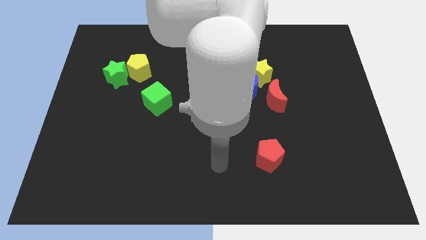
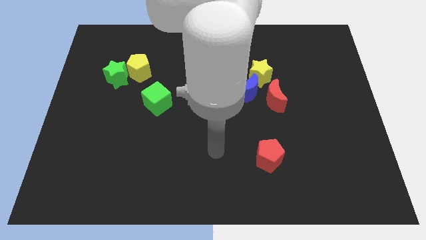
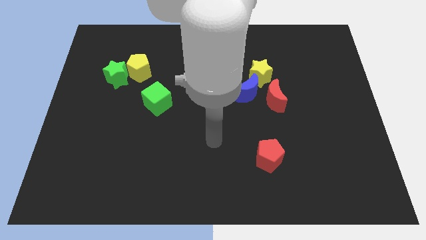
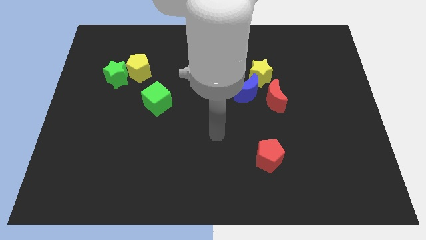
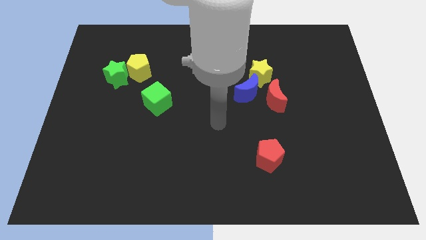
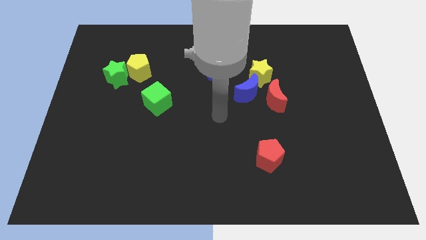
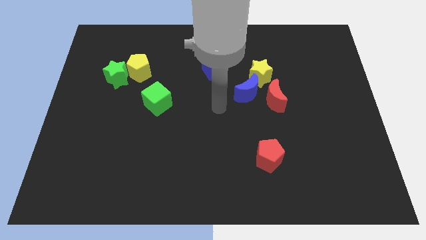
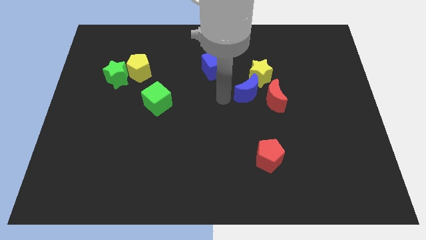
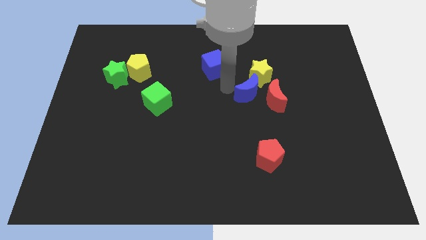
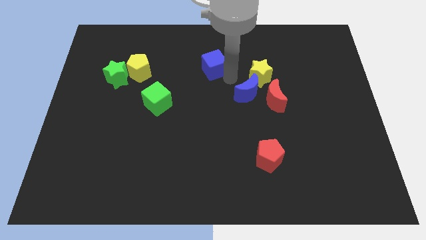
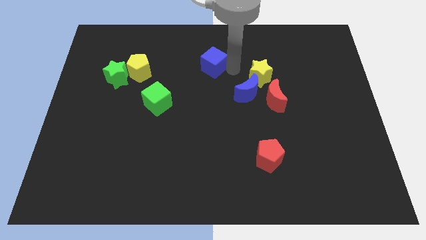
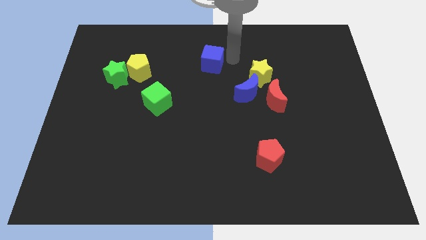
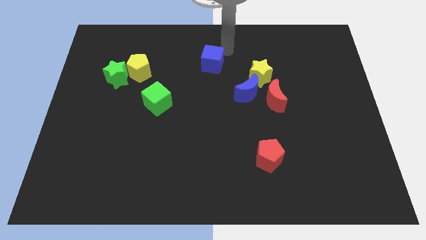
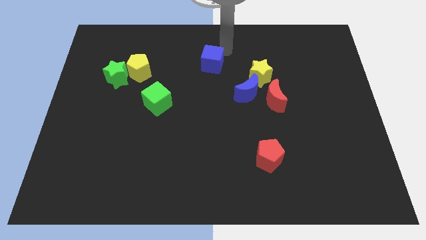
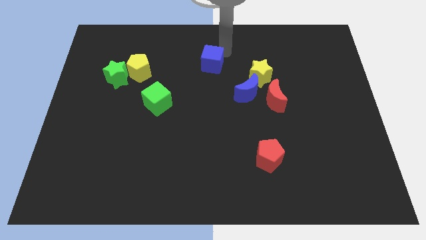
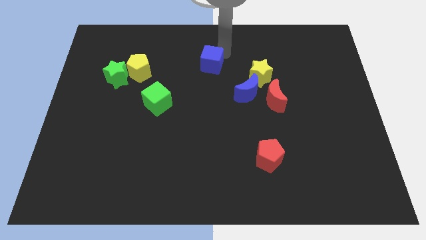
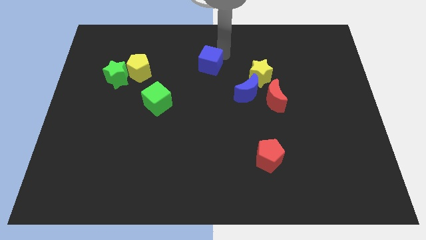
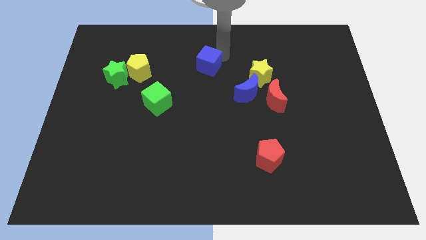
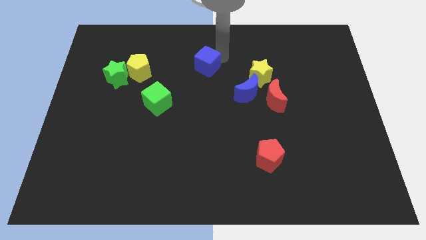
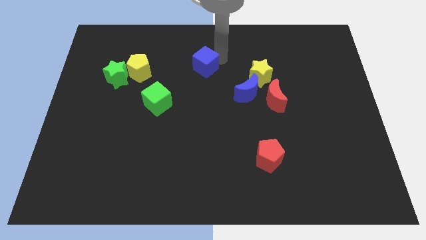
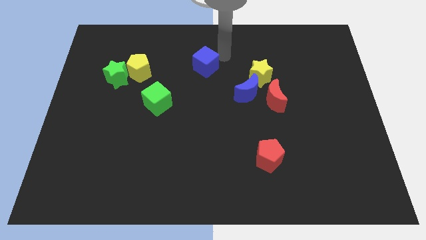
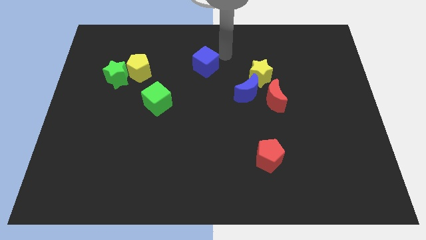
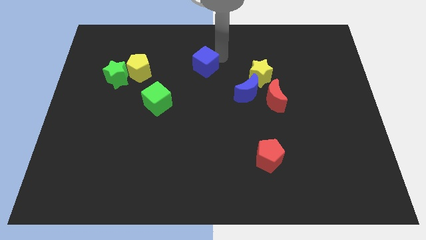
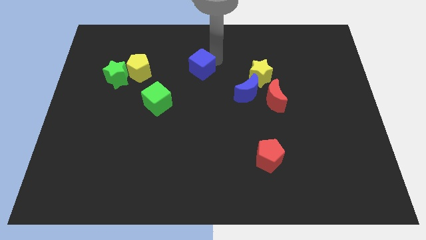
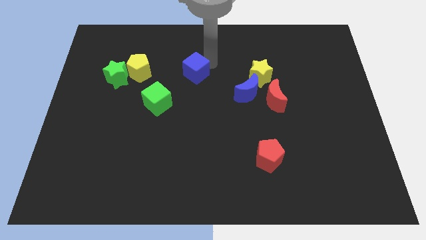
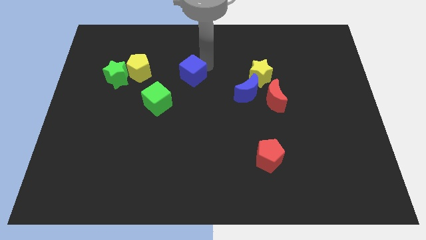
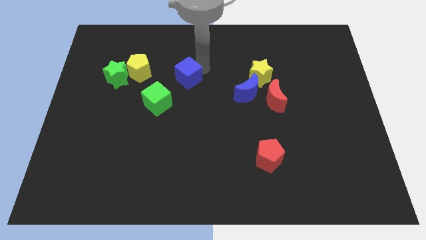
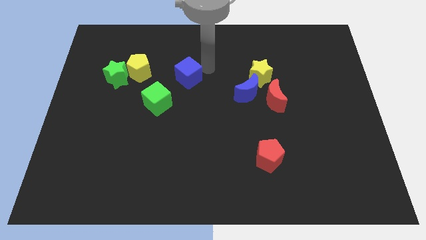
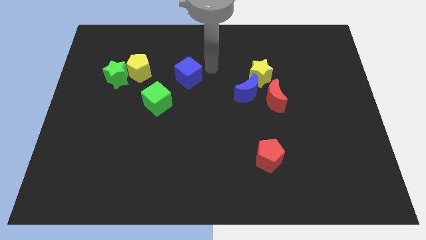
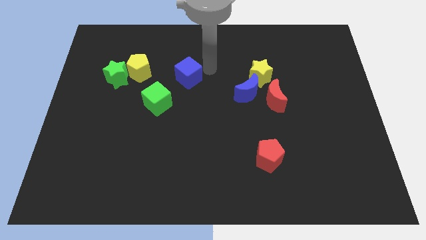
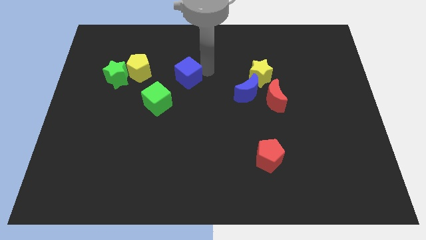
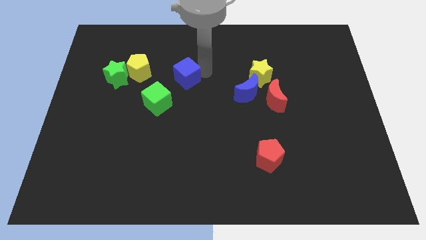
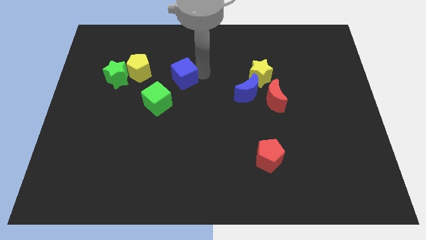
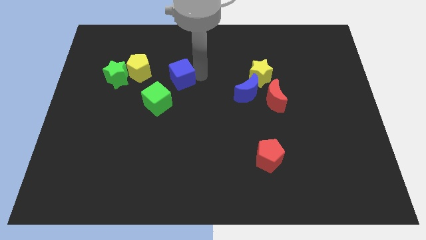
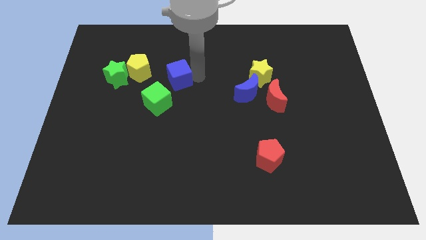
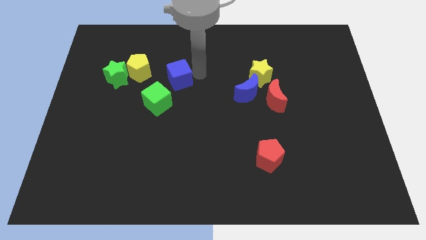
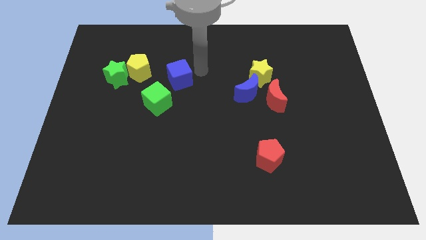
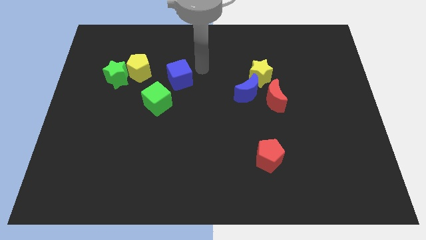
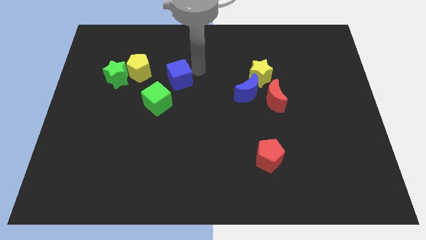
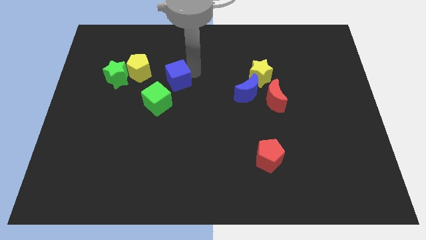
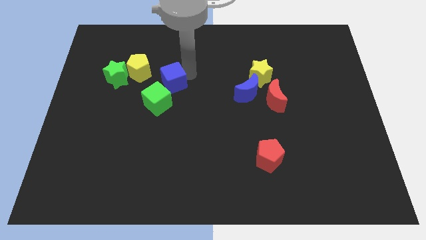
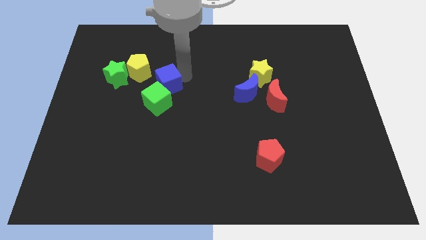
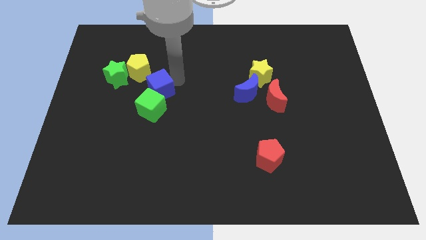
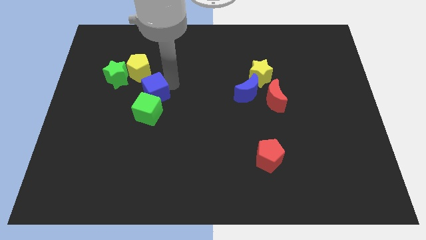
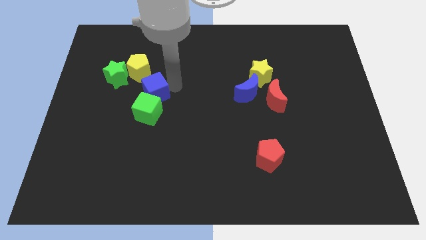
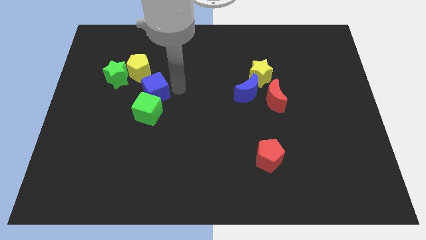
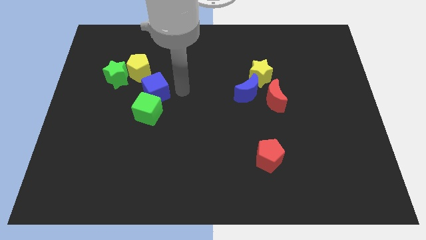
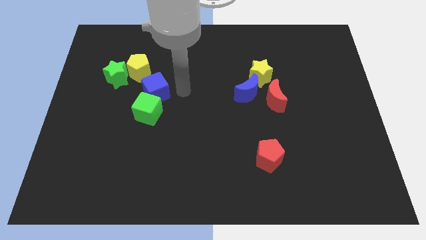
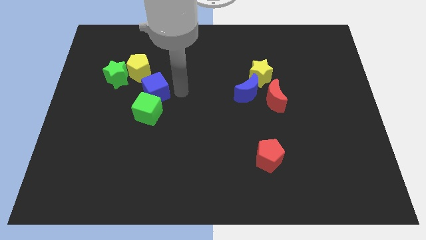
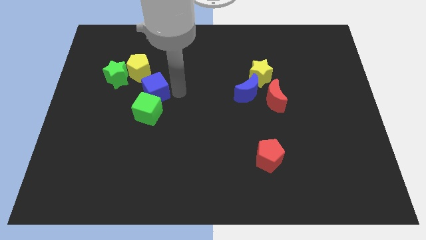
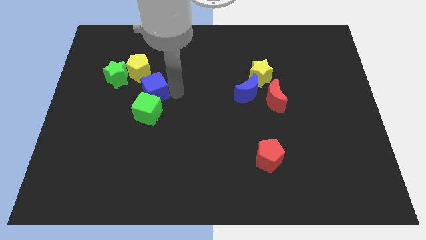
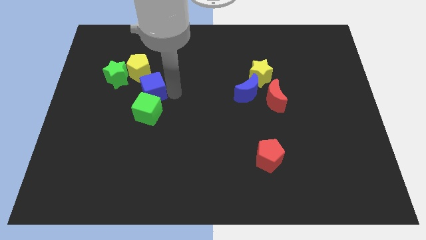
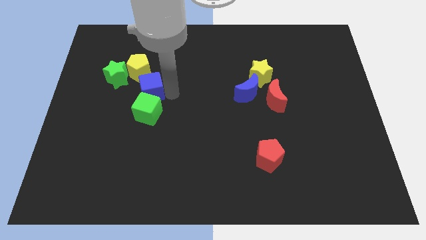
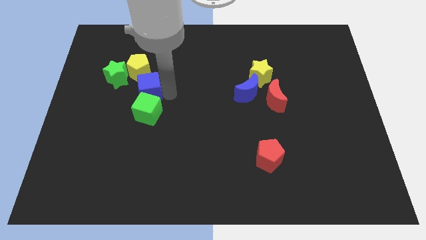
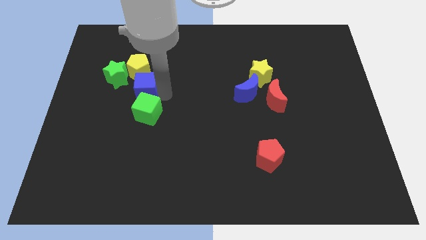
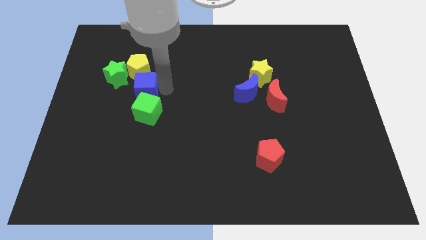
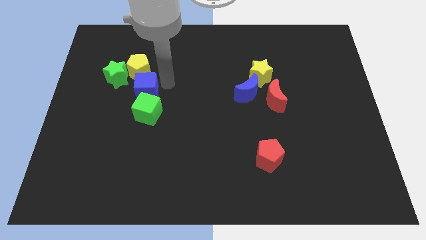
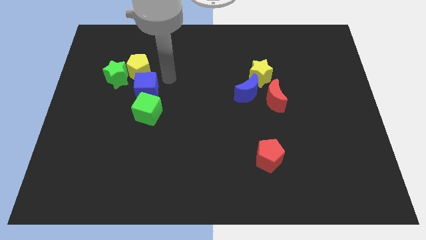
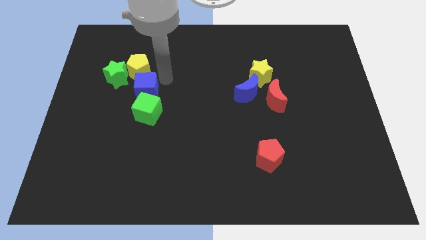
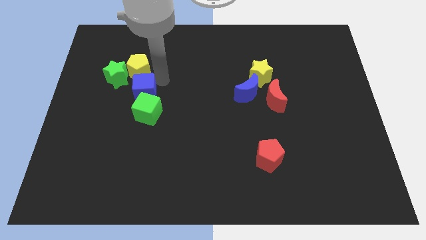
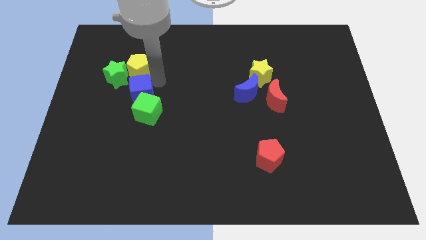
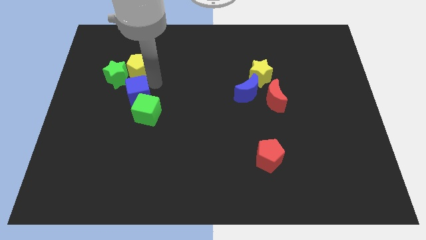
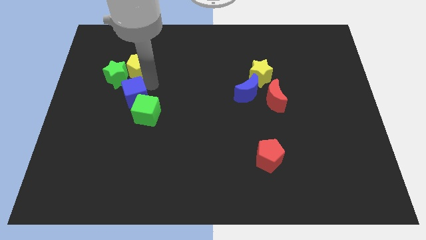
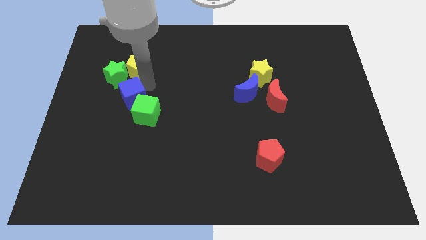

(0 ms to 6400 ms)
slide the blue cube below the green star

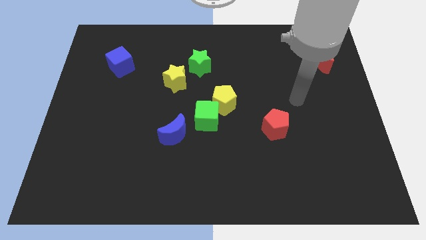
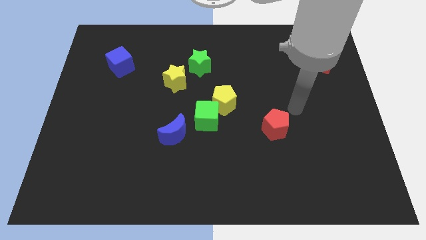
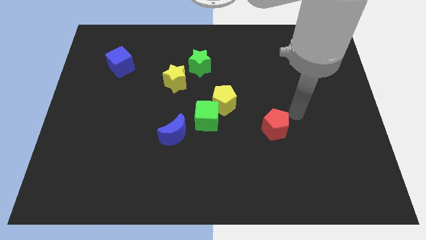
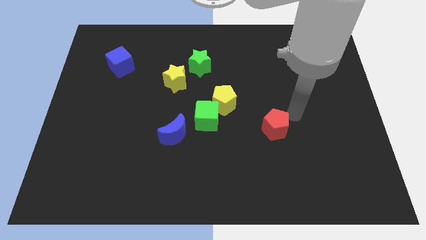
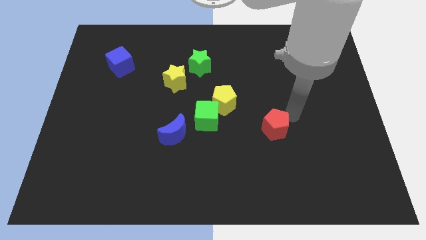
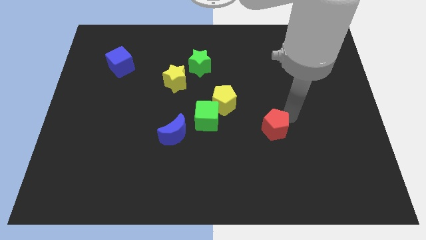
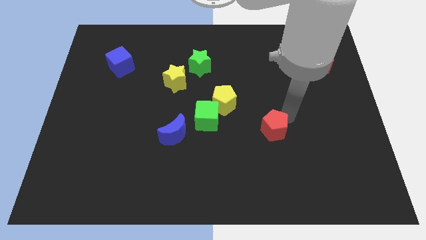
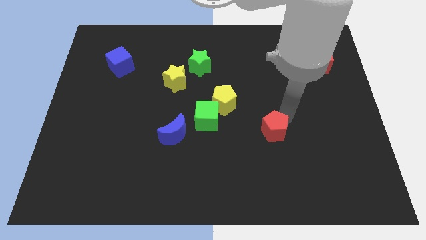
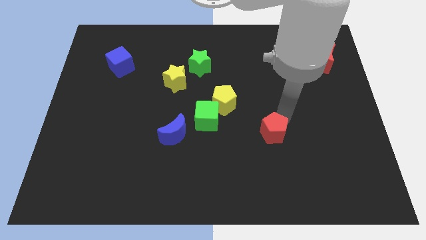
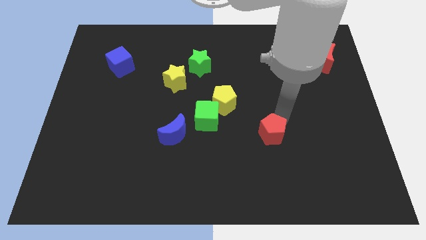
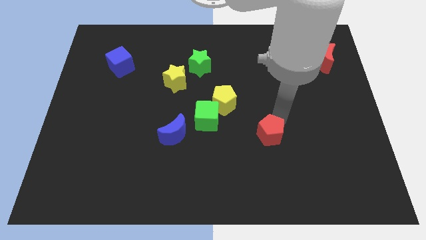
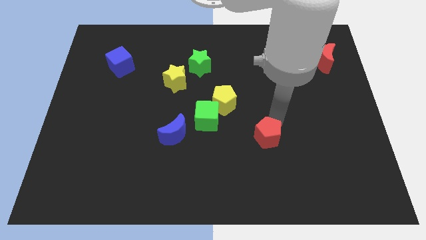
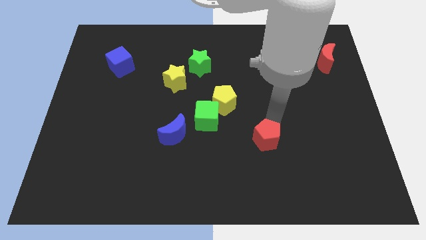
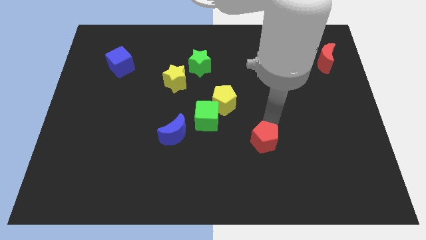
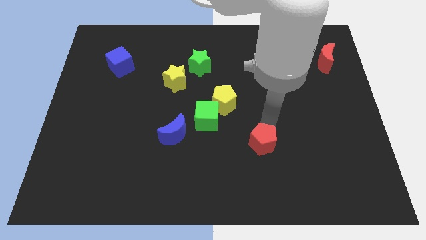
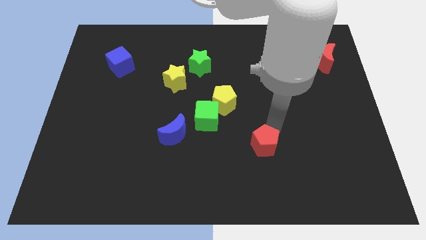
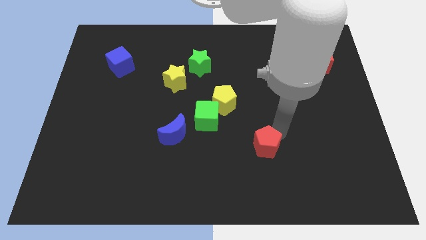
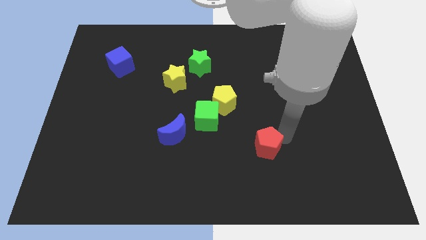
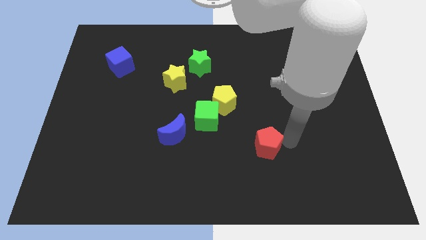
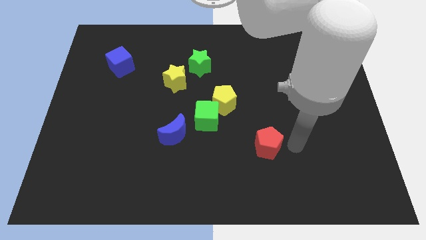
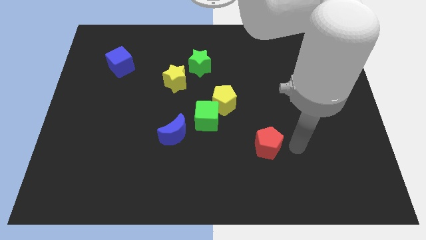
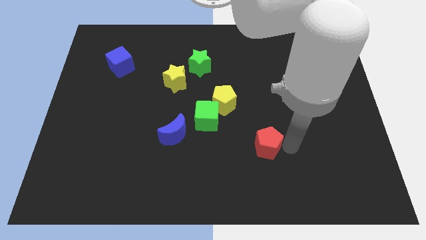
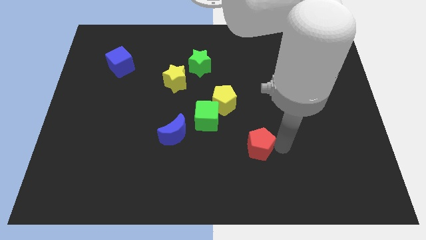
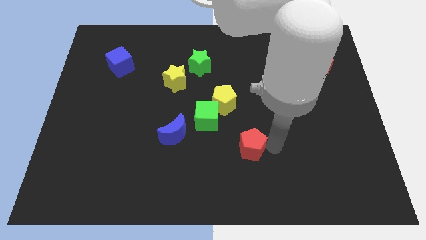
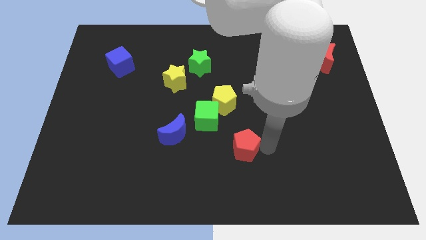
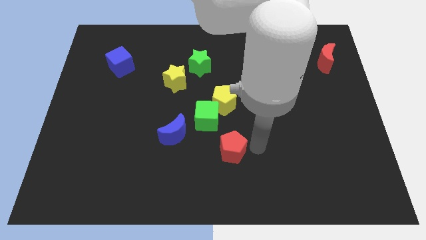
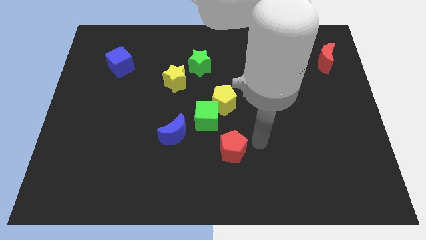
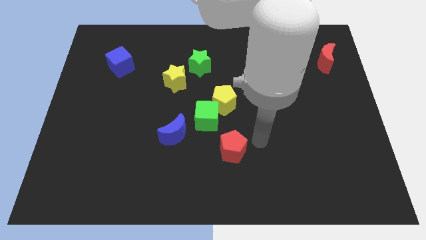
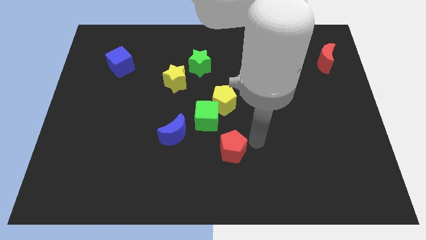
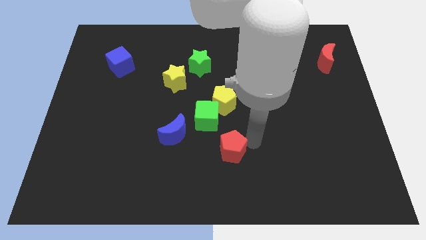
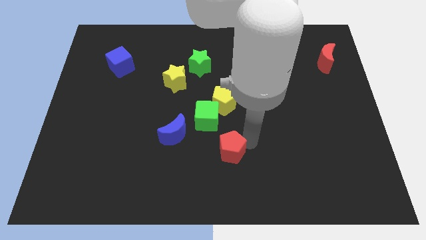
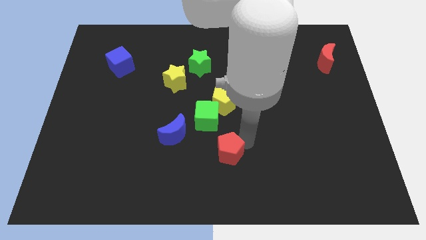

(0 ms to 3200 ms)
move the red pentagon below the green cube
